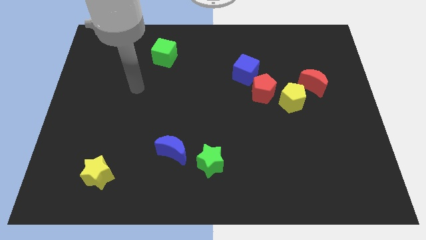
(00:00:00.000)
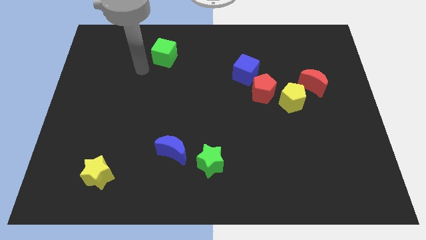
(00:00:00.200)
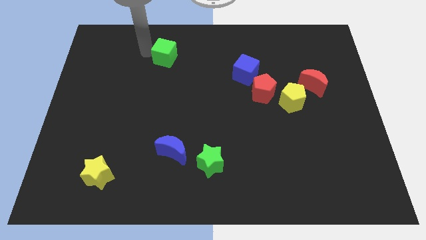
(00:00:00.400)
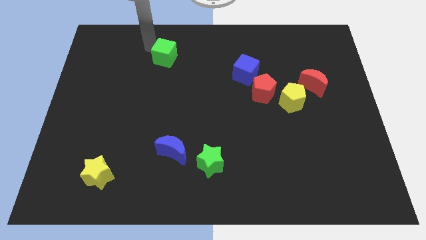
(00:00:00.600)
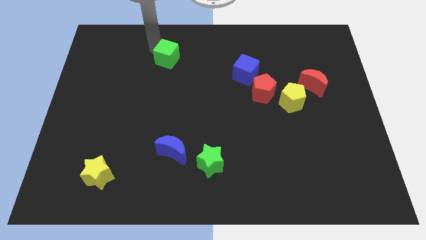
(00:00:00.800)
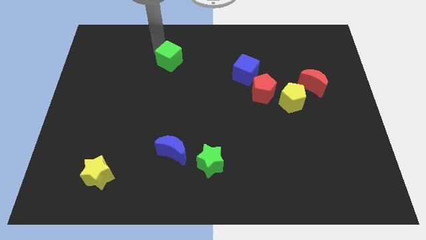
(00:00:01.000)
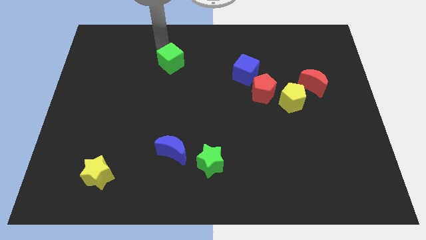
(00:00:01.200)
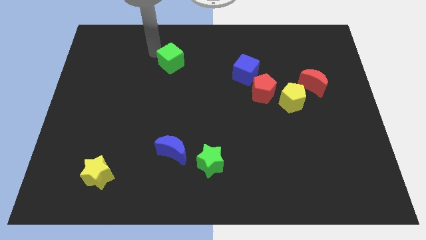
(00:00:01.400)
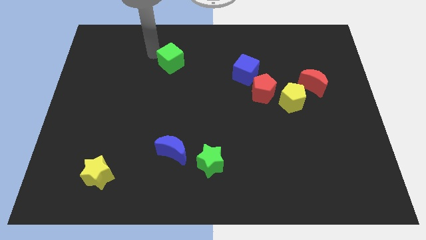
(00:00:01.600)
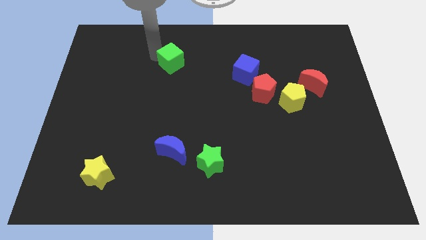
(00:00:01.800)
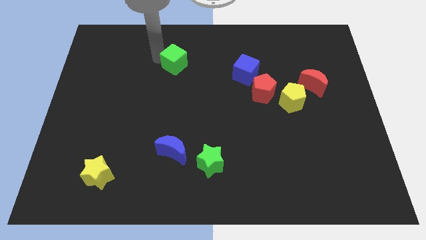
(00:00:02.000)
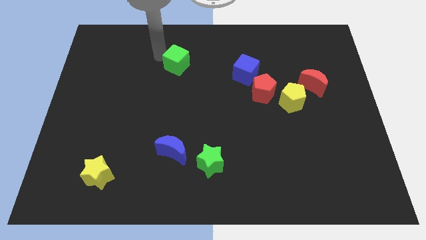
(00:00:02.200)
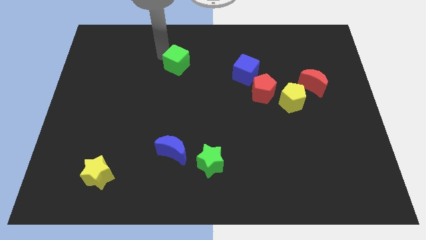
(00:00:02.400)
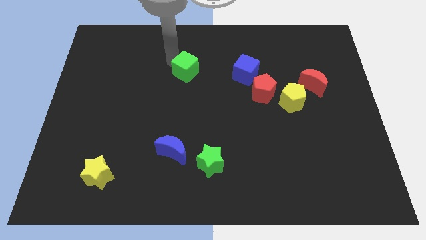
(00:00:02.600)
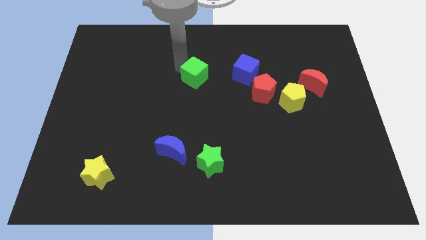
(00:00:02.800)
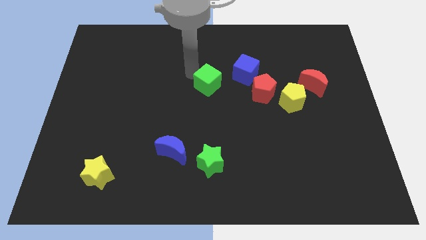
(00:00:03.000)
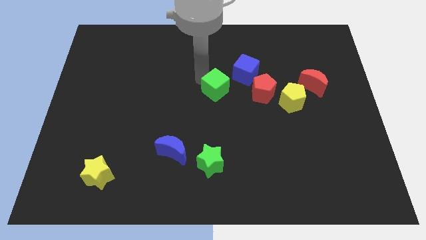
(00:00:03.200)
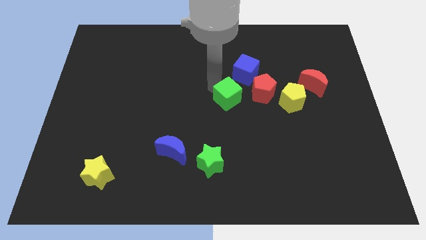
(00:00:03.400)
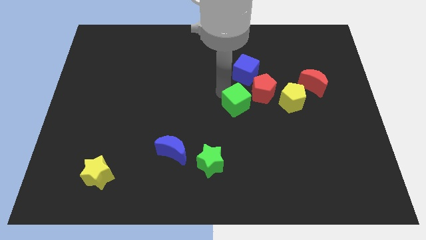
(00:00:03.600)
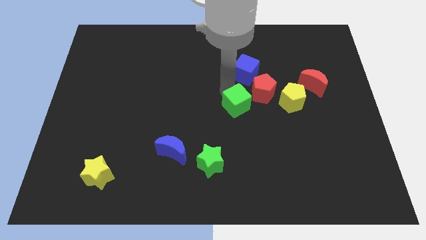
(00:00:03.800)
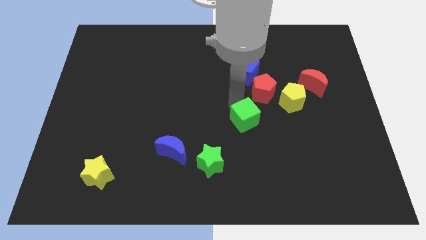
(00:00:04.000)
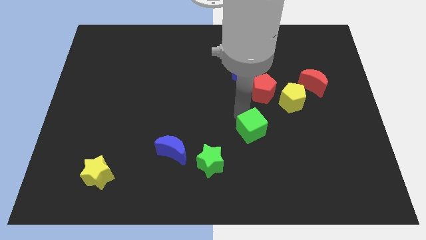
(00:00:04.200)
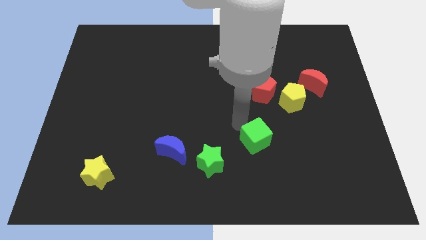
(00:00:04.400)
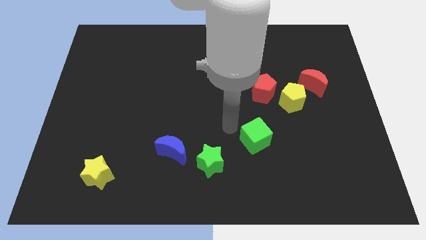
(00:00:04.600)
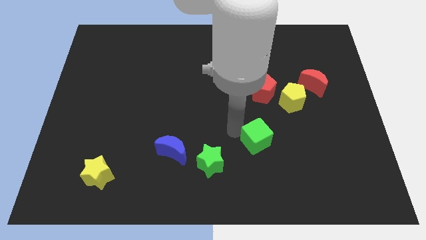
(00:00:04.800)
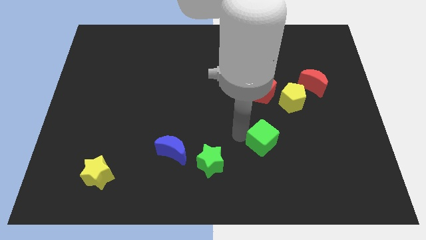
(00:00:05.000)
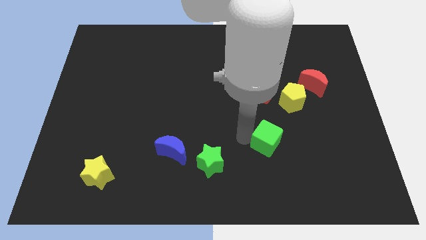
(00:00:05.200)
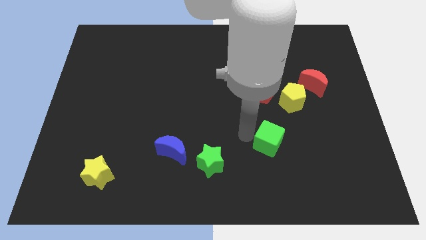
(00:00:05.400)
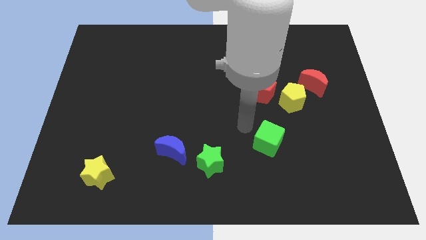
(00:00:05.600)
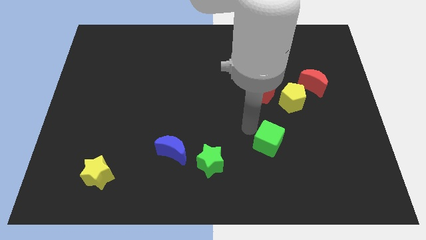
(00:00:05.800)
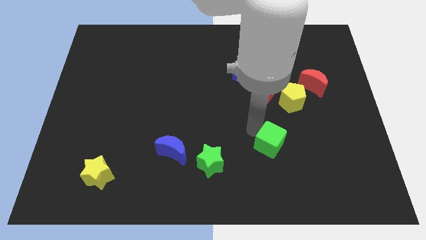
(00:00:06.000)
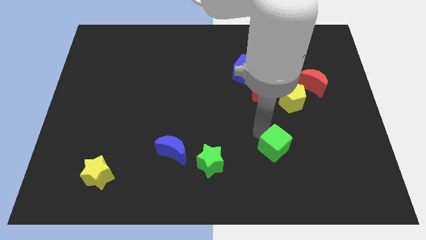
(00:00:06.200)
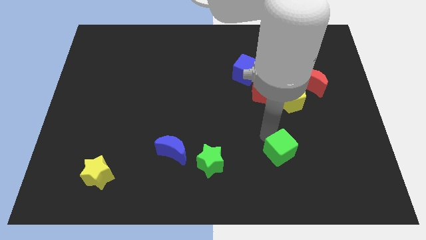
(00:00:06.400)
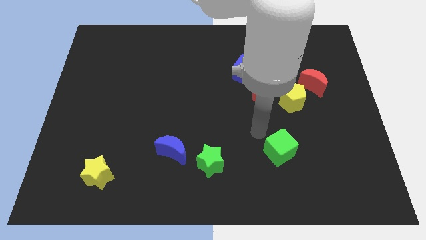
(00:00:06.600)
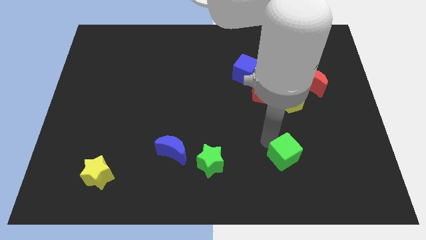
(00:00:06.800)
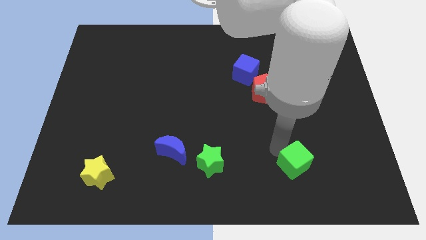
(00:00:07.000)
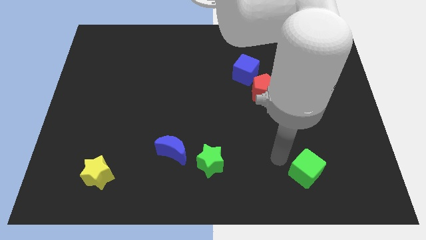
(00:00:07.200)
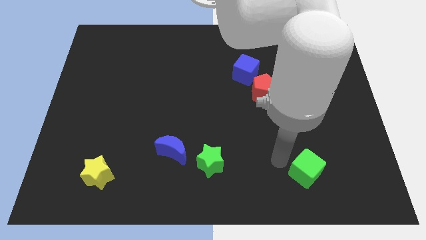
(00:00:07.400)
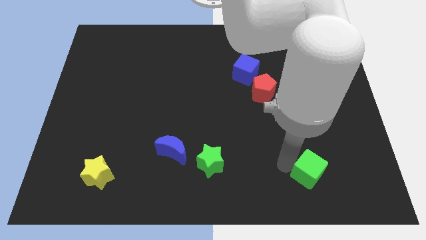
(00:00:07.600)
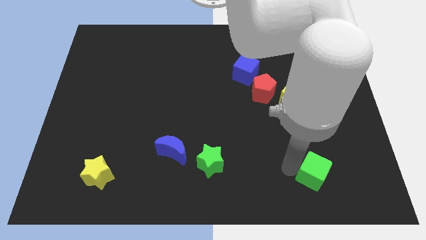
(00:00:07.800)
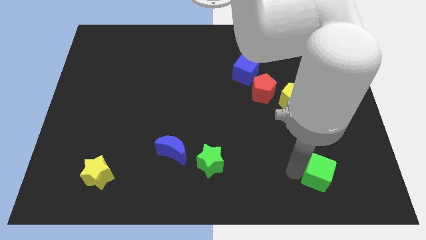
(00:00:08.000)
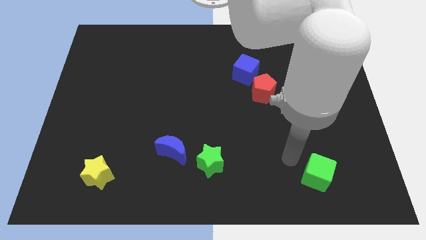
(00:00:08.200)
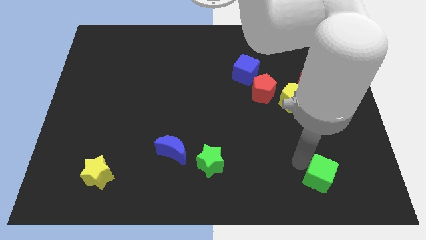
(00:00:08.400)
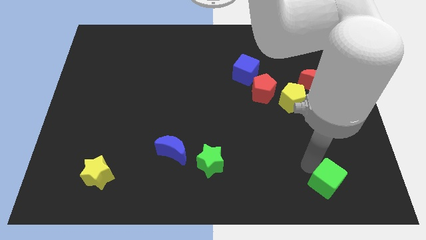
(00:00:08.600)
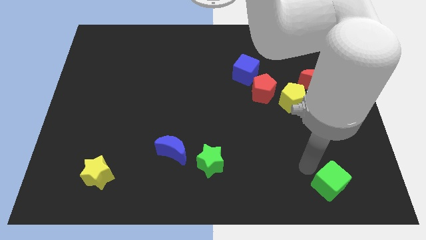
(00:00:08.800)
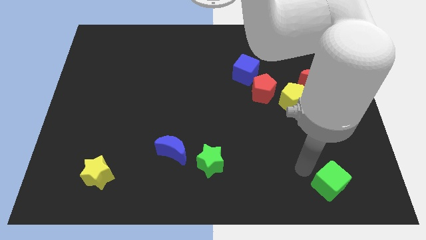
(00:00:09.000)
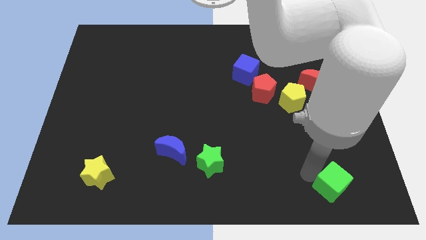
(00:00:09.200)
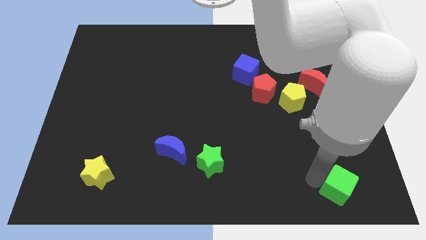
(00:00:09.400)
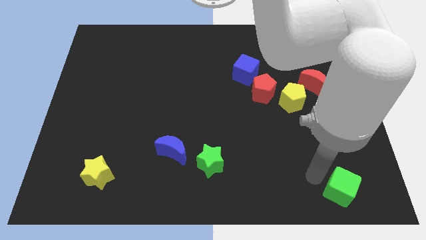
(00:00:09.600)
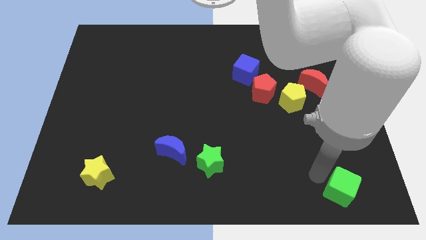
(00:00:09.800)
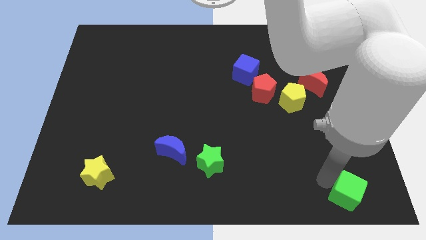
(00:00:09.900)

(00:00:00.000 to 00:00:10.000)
move the green cube to the bottom right corner

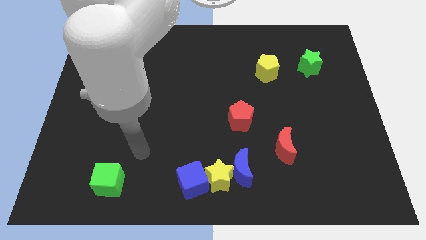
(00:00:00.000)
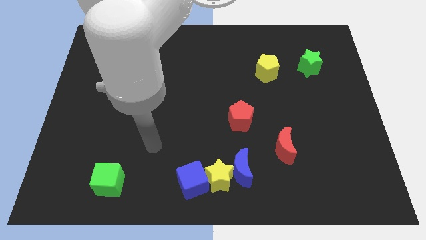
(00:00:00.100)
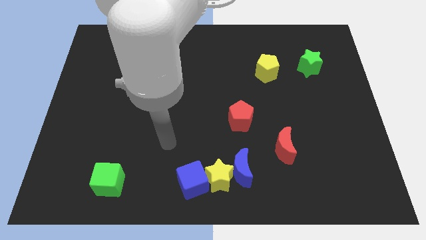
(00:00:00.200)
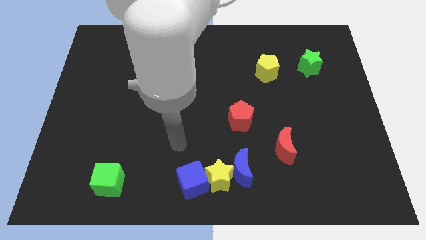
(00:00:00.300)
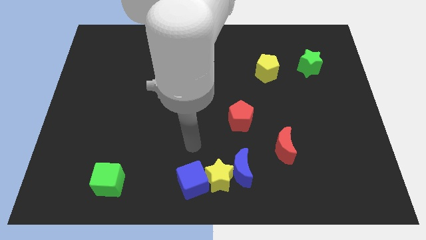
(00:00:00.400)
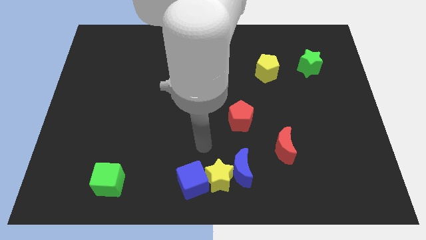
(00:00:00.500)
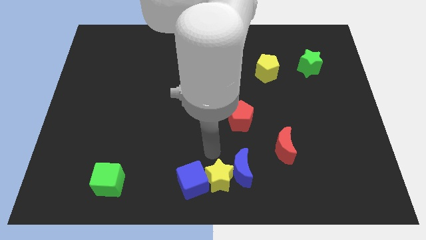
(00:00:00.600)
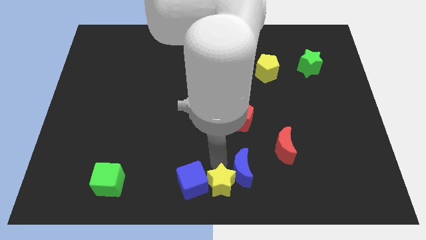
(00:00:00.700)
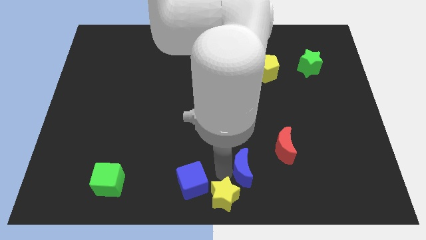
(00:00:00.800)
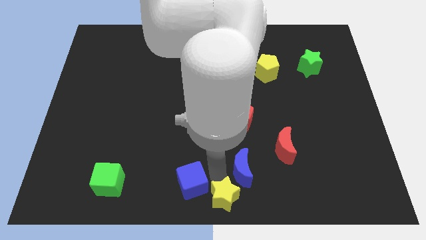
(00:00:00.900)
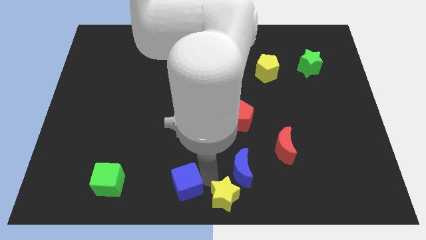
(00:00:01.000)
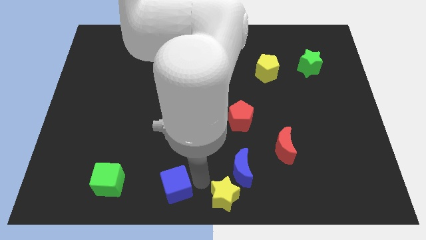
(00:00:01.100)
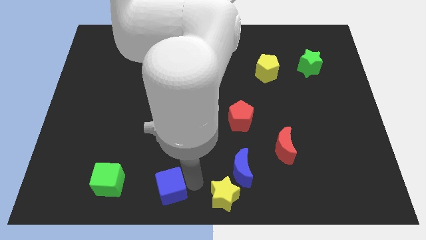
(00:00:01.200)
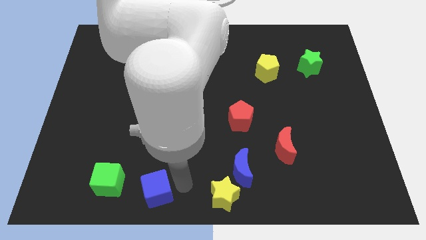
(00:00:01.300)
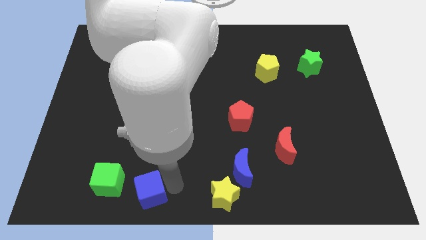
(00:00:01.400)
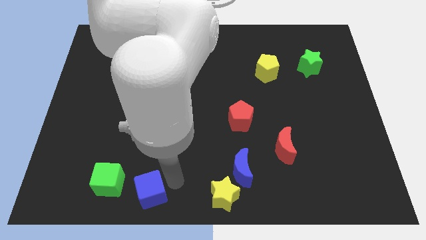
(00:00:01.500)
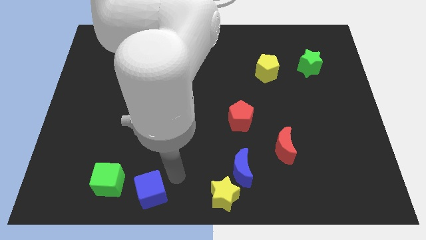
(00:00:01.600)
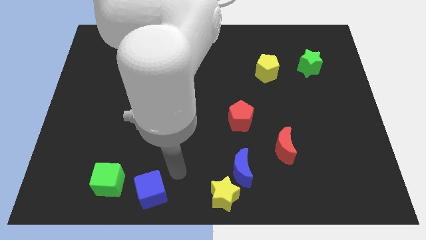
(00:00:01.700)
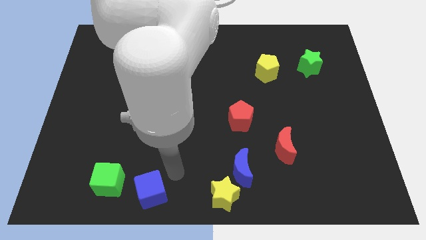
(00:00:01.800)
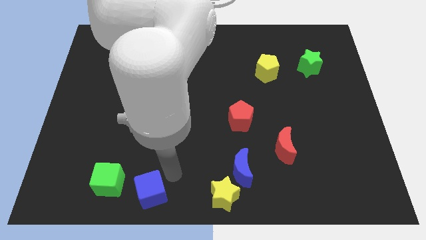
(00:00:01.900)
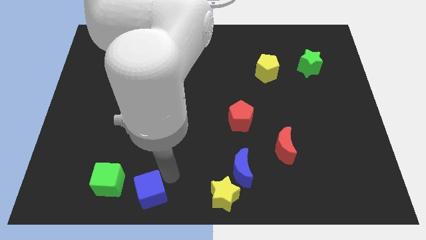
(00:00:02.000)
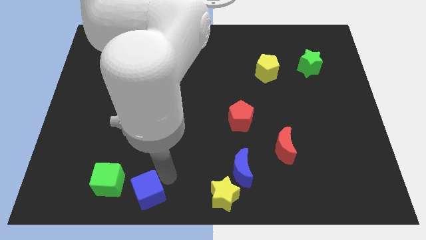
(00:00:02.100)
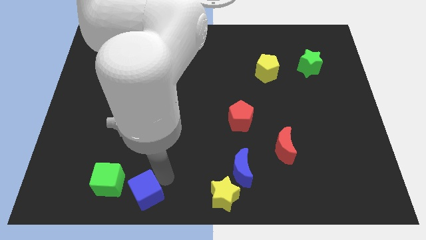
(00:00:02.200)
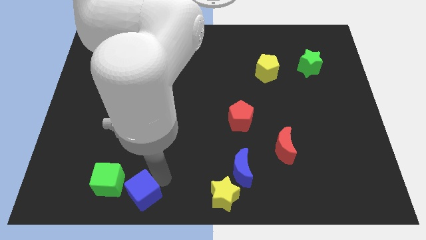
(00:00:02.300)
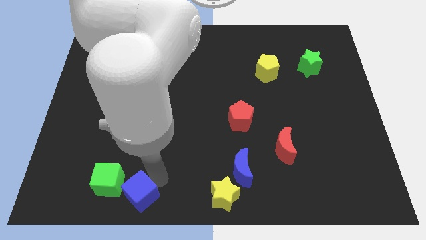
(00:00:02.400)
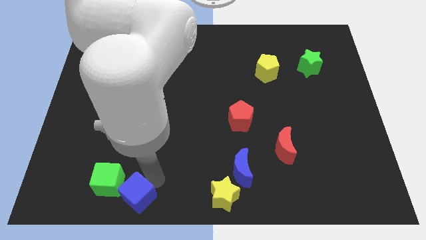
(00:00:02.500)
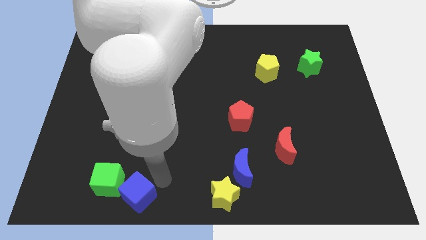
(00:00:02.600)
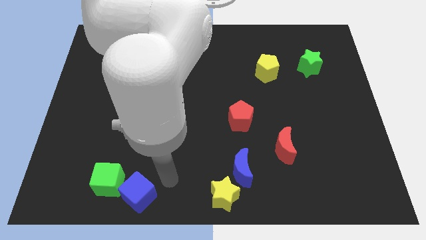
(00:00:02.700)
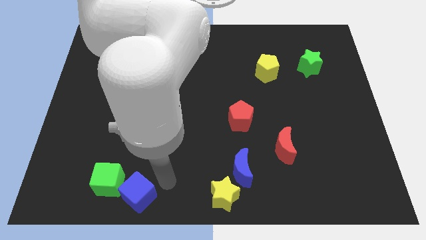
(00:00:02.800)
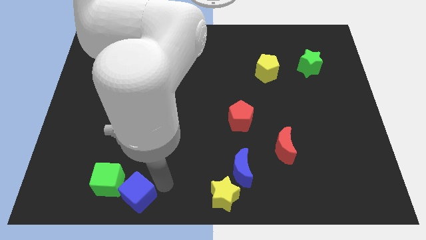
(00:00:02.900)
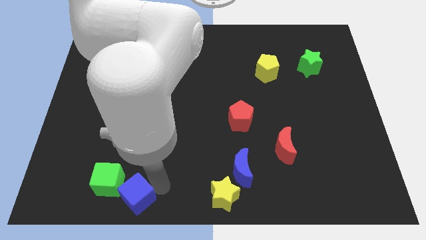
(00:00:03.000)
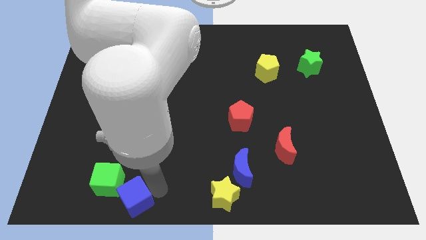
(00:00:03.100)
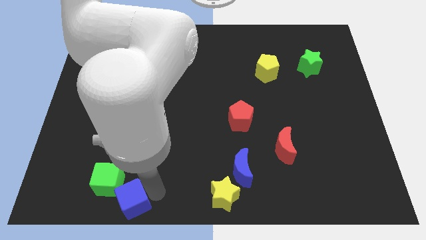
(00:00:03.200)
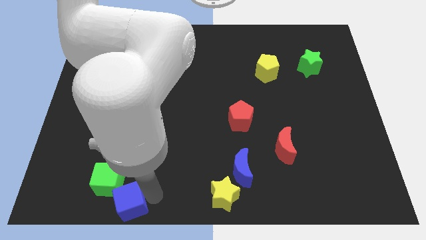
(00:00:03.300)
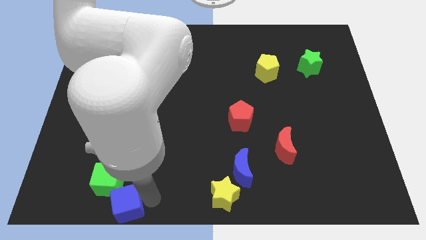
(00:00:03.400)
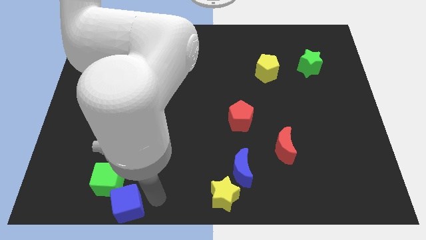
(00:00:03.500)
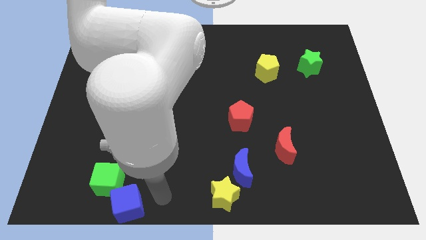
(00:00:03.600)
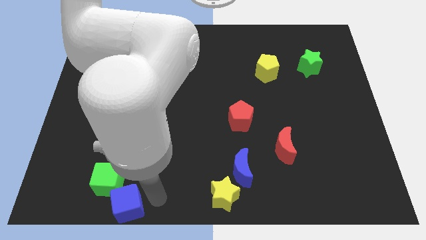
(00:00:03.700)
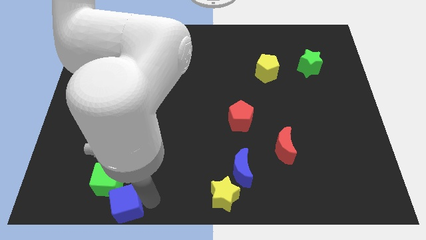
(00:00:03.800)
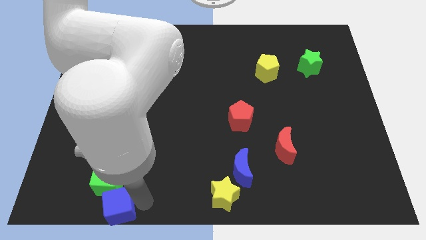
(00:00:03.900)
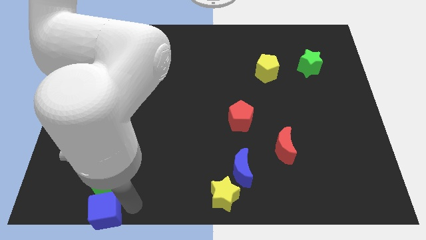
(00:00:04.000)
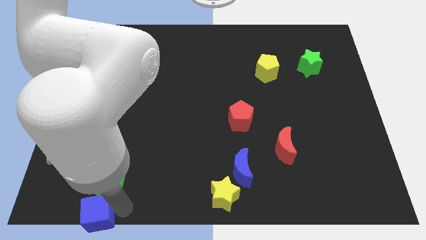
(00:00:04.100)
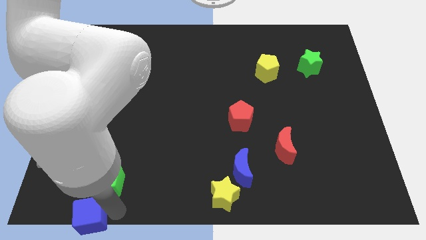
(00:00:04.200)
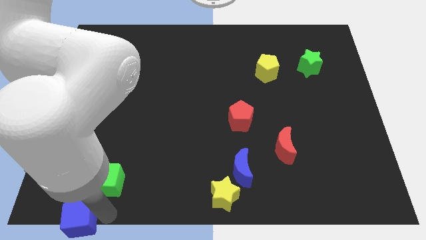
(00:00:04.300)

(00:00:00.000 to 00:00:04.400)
slide the blue cube to the lower left corner
